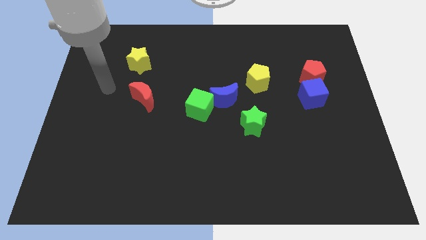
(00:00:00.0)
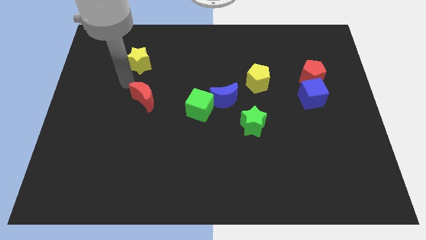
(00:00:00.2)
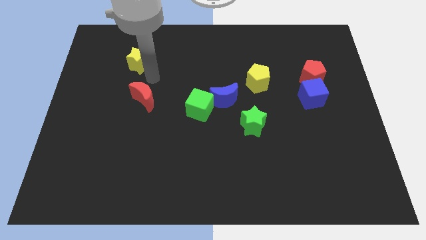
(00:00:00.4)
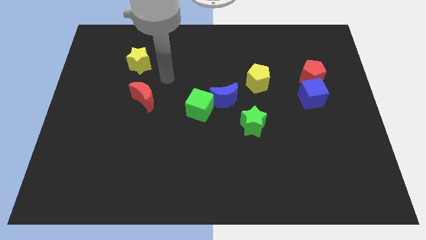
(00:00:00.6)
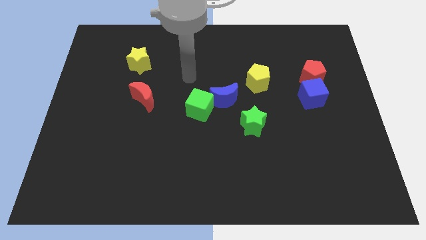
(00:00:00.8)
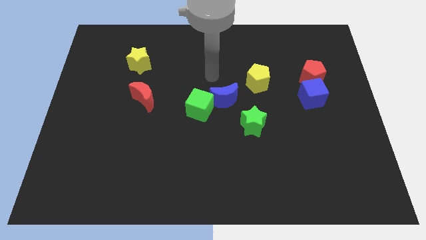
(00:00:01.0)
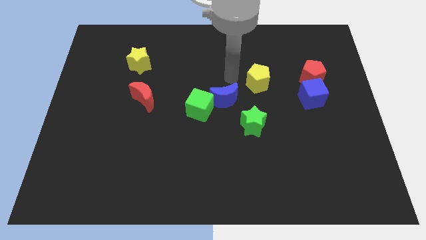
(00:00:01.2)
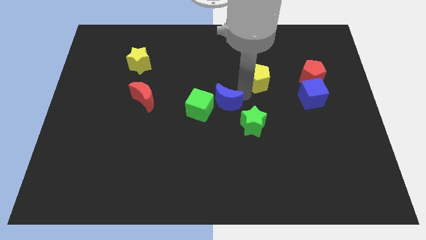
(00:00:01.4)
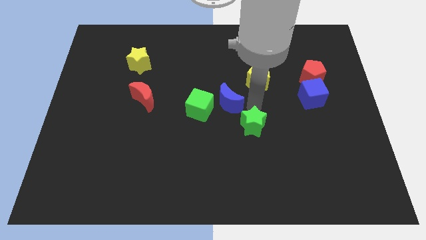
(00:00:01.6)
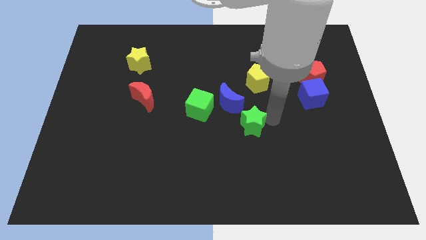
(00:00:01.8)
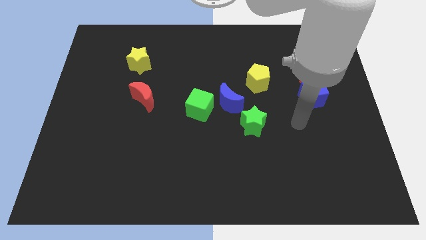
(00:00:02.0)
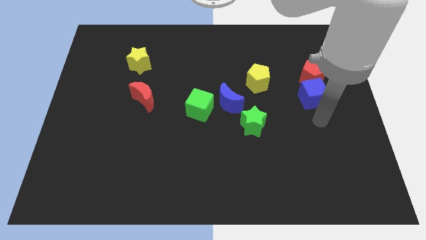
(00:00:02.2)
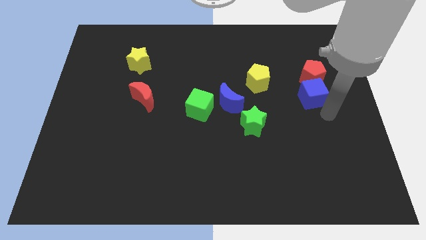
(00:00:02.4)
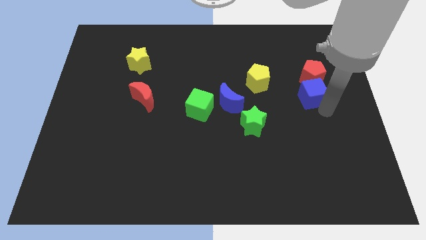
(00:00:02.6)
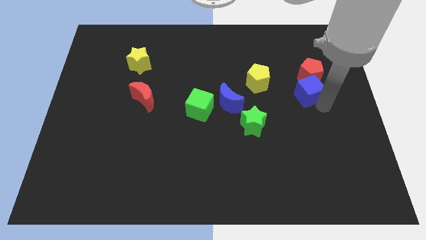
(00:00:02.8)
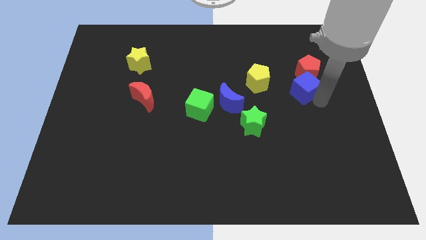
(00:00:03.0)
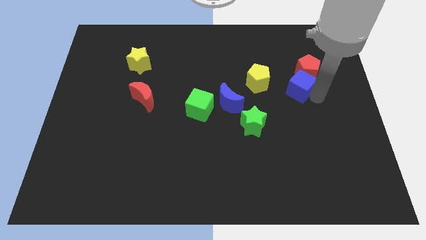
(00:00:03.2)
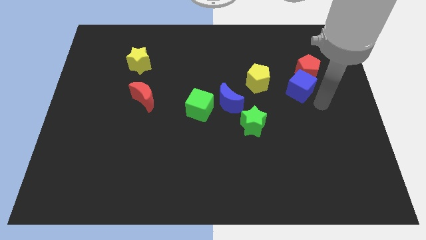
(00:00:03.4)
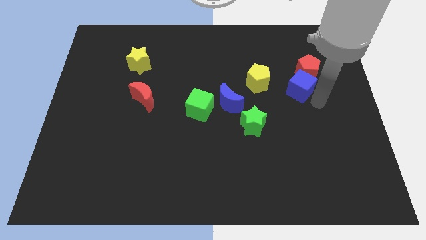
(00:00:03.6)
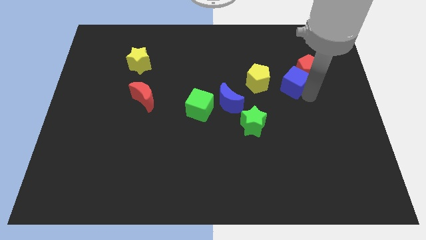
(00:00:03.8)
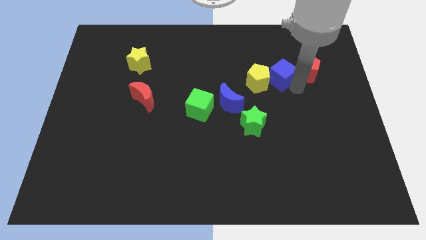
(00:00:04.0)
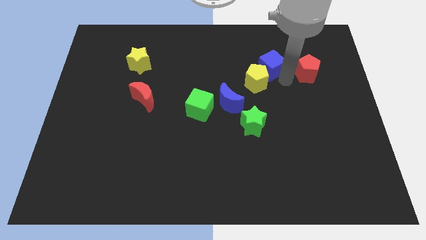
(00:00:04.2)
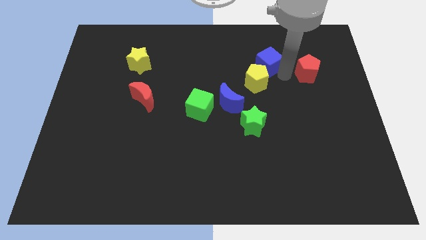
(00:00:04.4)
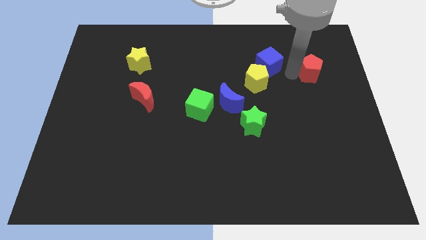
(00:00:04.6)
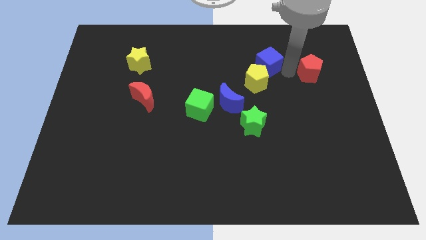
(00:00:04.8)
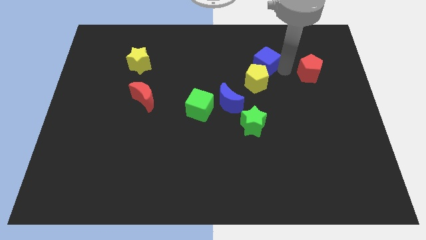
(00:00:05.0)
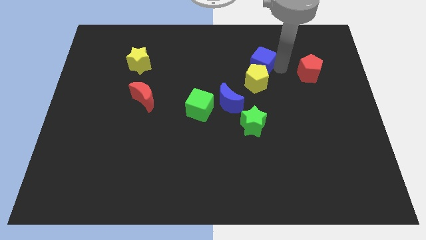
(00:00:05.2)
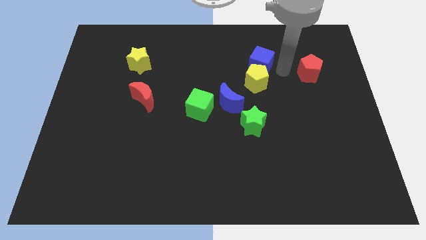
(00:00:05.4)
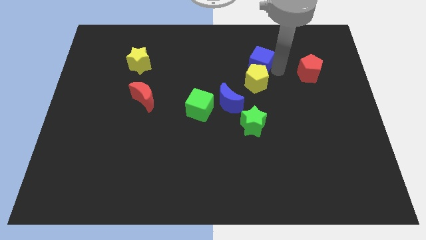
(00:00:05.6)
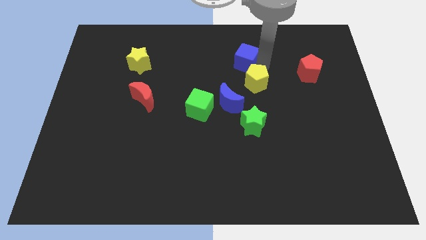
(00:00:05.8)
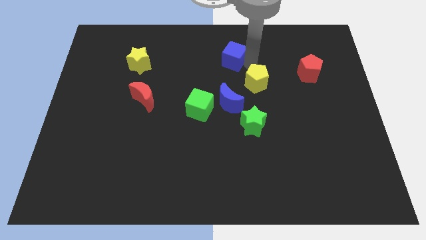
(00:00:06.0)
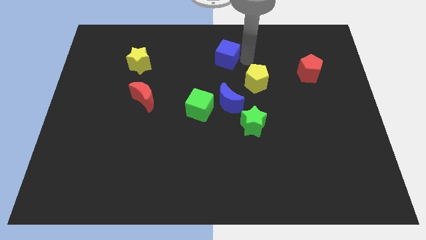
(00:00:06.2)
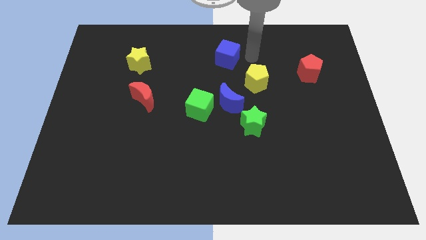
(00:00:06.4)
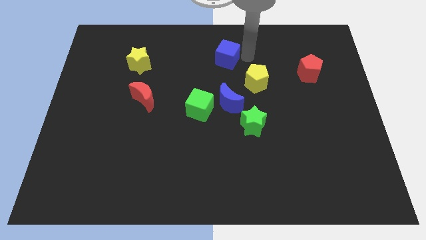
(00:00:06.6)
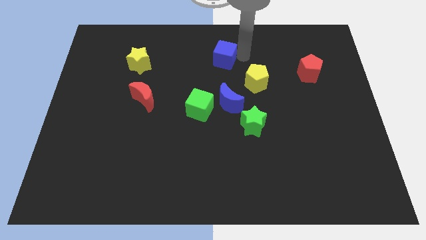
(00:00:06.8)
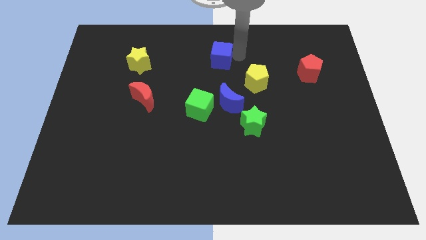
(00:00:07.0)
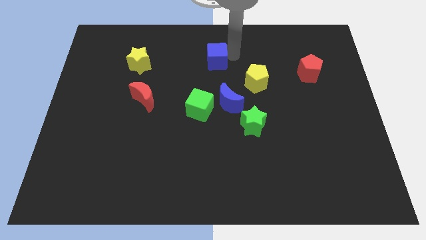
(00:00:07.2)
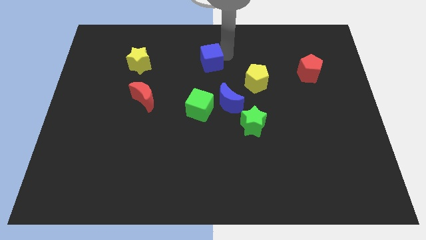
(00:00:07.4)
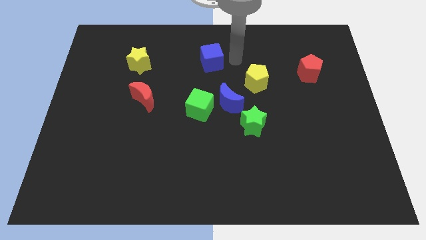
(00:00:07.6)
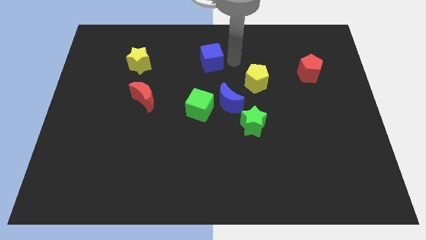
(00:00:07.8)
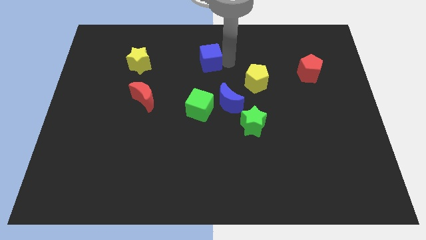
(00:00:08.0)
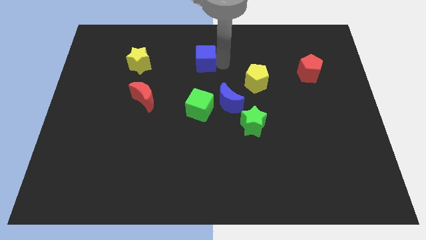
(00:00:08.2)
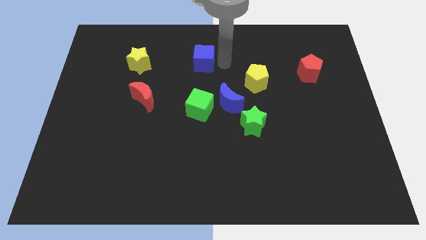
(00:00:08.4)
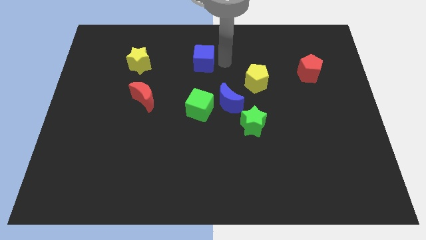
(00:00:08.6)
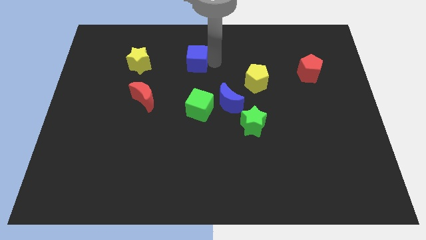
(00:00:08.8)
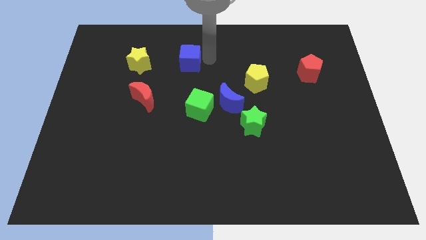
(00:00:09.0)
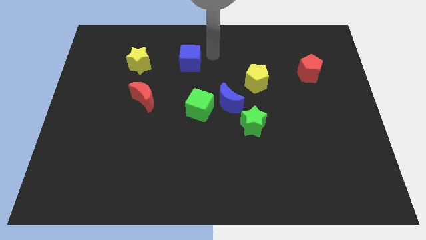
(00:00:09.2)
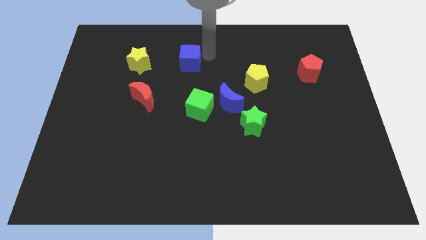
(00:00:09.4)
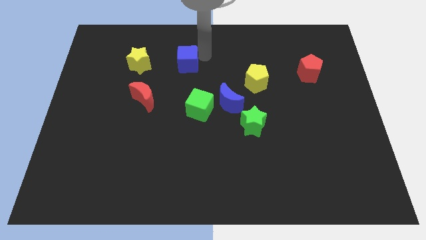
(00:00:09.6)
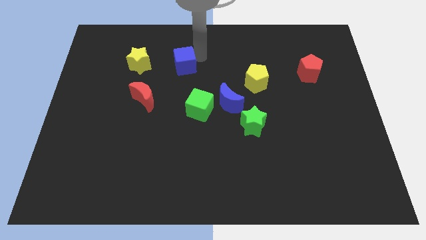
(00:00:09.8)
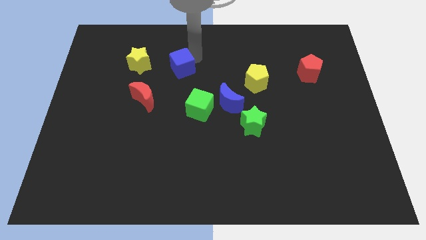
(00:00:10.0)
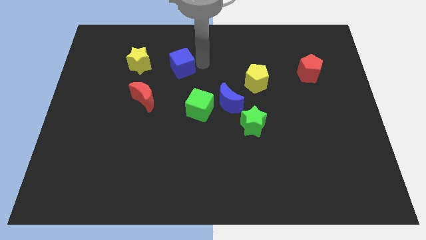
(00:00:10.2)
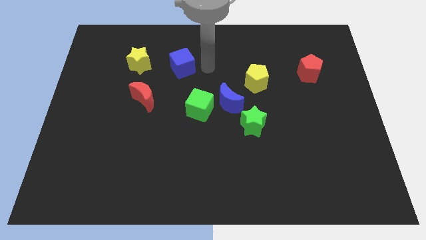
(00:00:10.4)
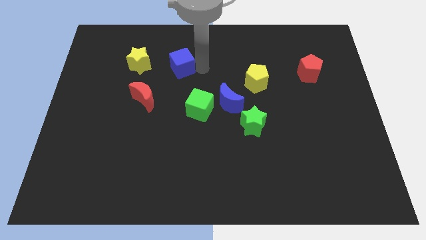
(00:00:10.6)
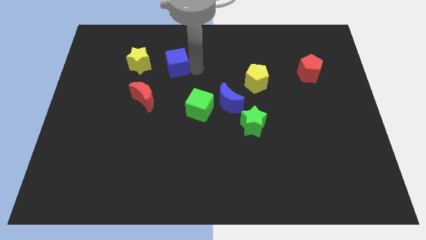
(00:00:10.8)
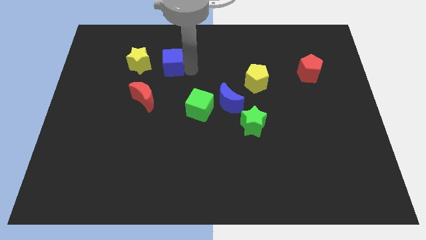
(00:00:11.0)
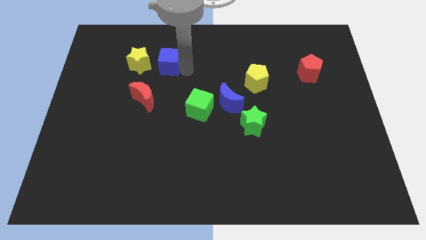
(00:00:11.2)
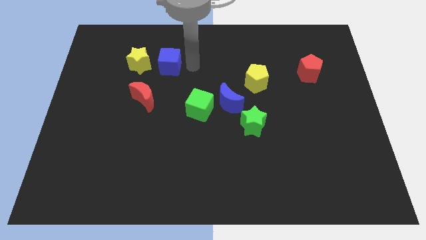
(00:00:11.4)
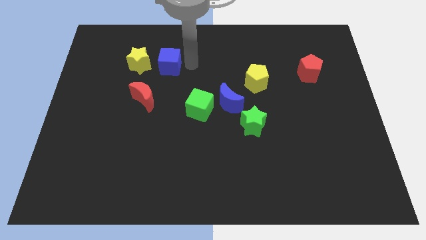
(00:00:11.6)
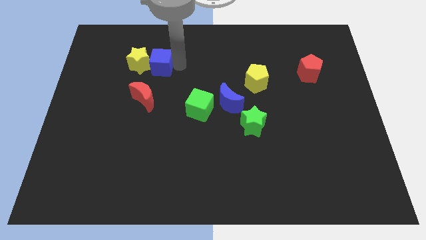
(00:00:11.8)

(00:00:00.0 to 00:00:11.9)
push the blue cube towards the yellow star

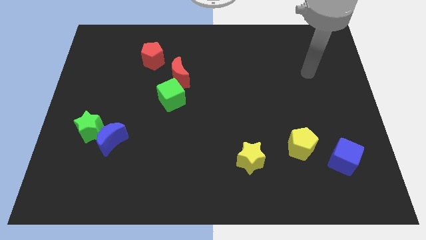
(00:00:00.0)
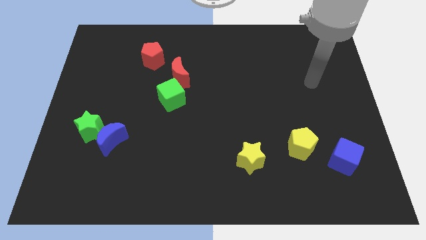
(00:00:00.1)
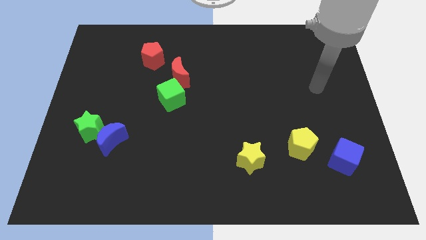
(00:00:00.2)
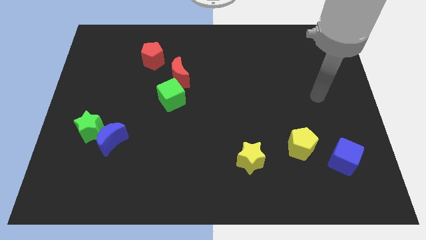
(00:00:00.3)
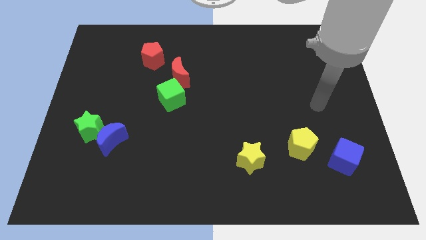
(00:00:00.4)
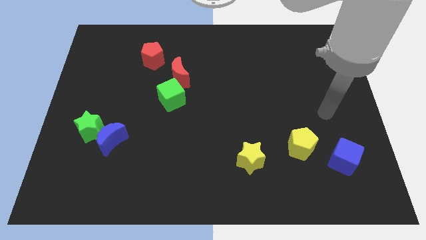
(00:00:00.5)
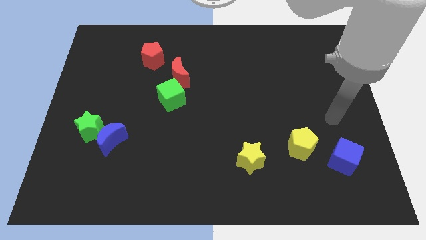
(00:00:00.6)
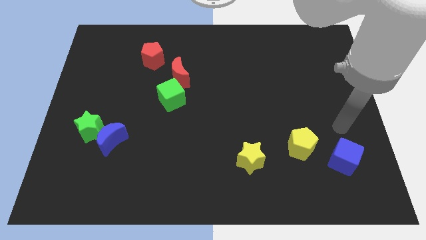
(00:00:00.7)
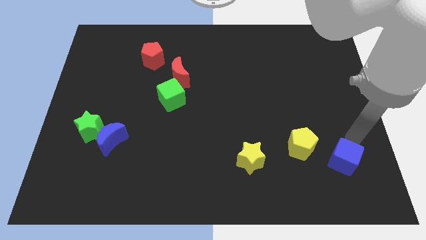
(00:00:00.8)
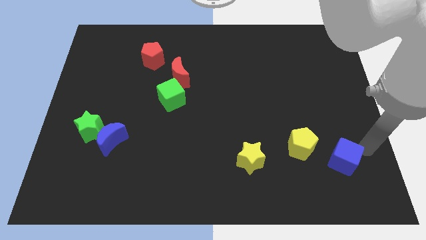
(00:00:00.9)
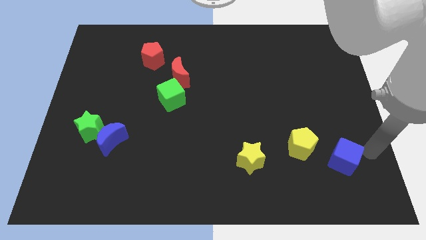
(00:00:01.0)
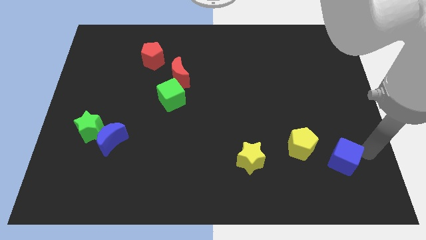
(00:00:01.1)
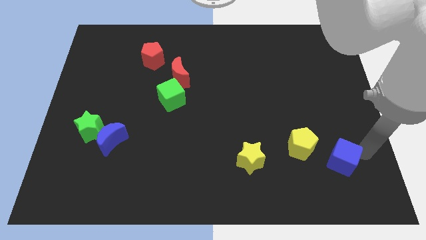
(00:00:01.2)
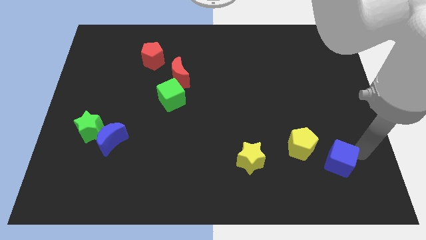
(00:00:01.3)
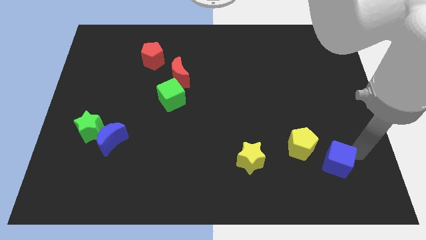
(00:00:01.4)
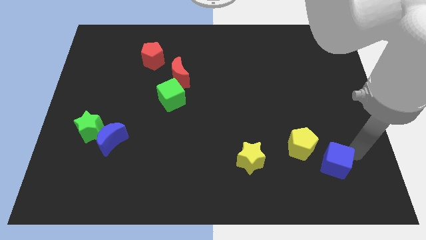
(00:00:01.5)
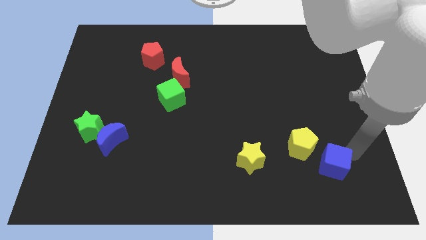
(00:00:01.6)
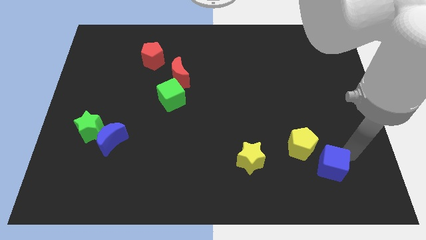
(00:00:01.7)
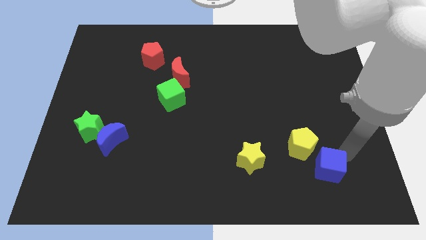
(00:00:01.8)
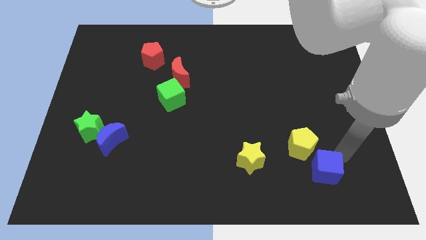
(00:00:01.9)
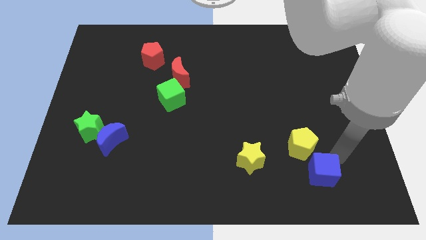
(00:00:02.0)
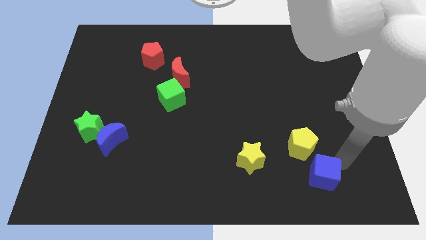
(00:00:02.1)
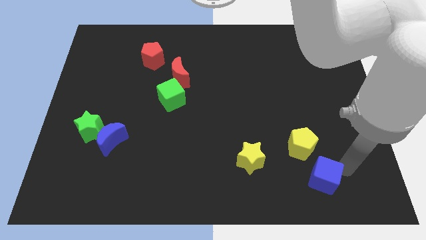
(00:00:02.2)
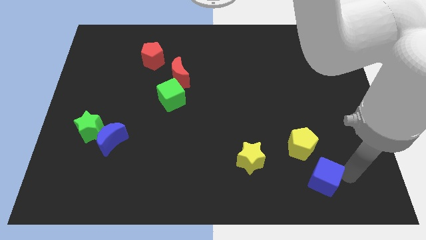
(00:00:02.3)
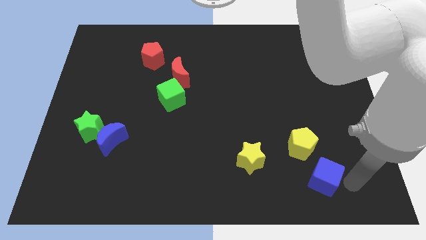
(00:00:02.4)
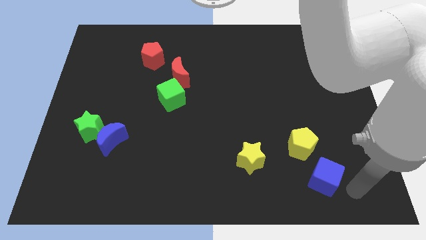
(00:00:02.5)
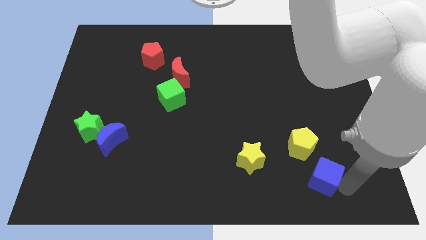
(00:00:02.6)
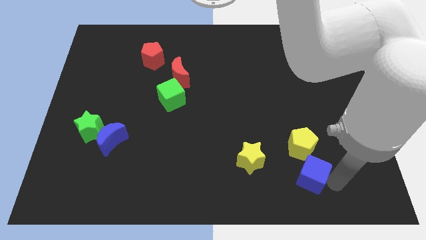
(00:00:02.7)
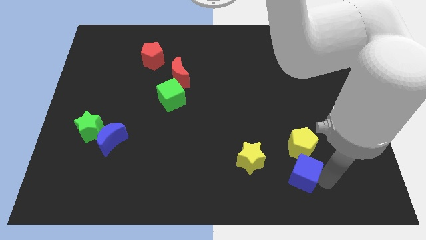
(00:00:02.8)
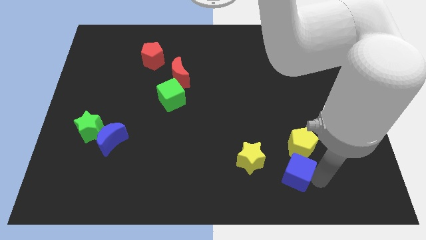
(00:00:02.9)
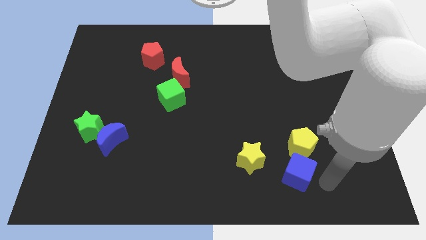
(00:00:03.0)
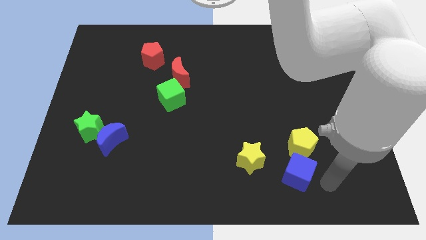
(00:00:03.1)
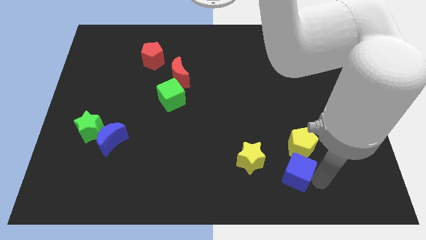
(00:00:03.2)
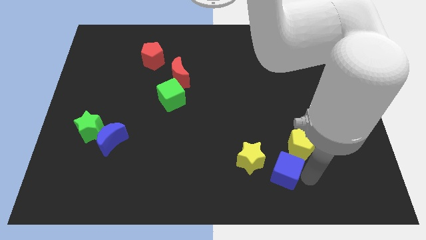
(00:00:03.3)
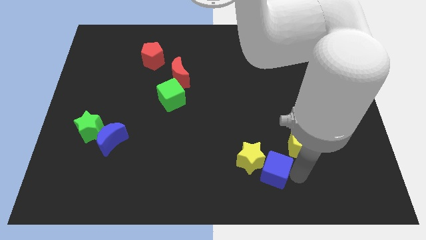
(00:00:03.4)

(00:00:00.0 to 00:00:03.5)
put the blue cube next to the yellow star
